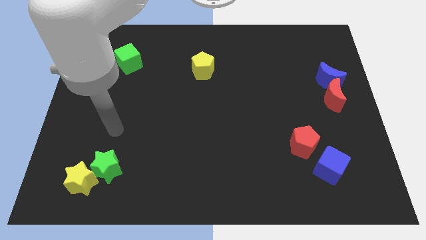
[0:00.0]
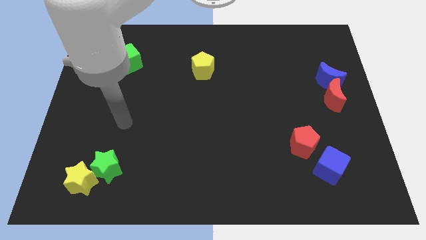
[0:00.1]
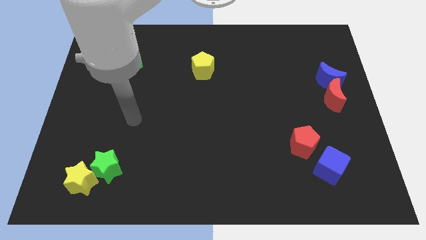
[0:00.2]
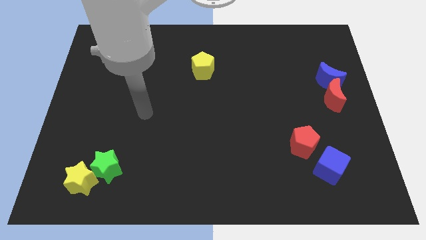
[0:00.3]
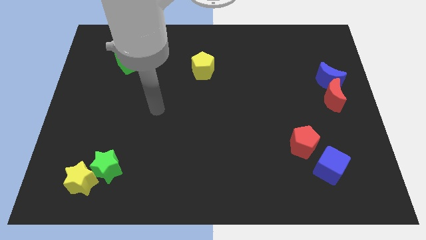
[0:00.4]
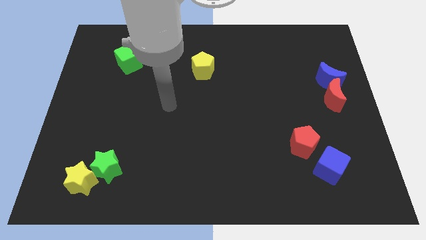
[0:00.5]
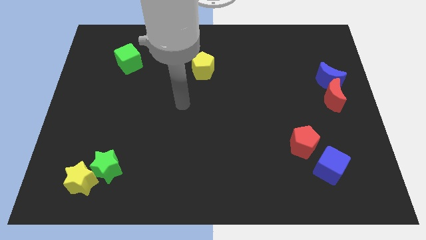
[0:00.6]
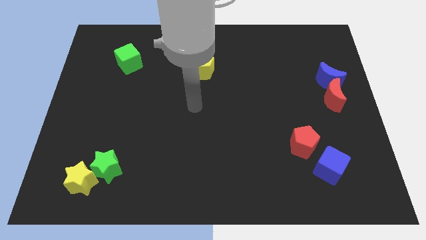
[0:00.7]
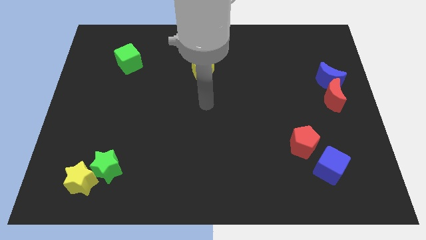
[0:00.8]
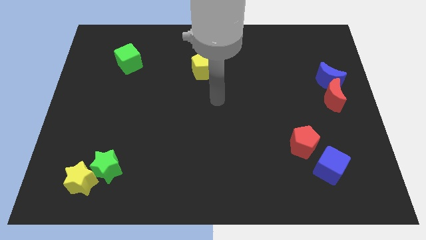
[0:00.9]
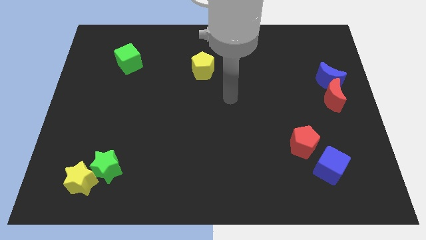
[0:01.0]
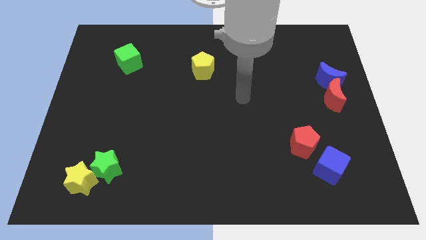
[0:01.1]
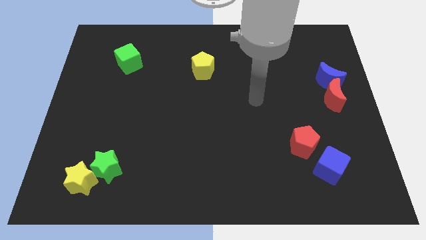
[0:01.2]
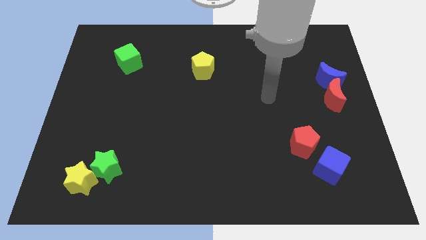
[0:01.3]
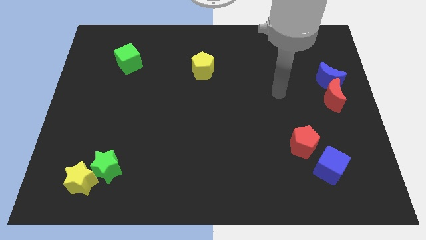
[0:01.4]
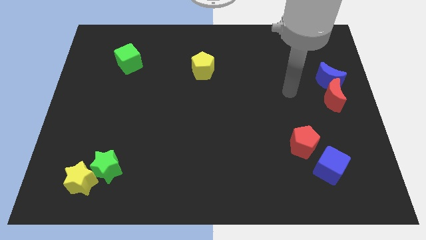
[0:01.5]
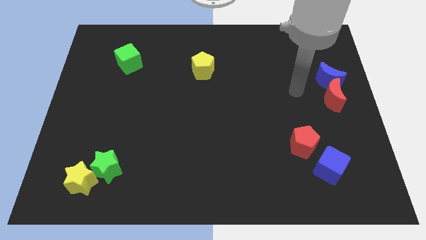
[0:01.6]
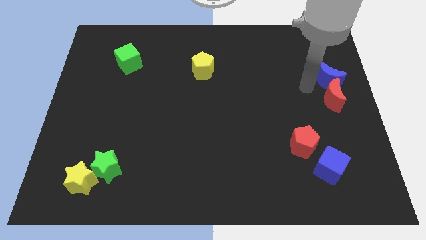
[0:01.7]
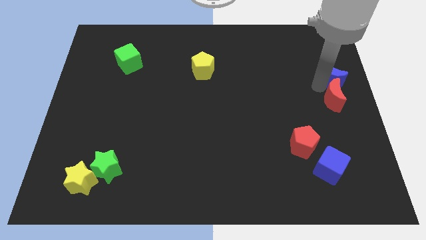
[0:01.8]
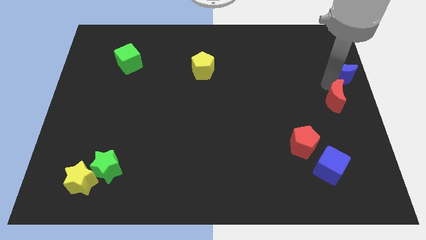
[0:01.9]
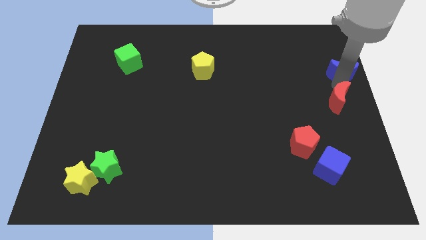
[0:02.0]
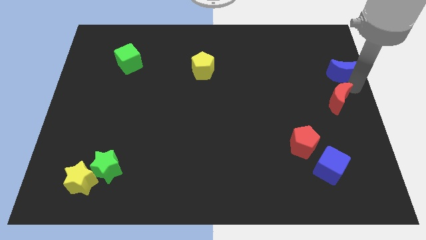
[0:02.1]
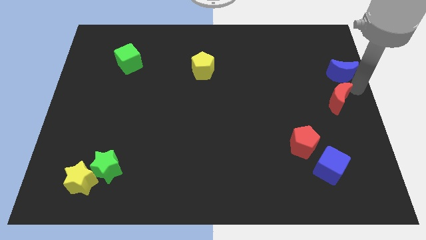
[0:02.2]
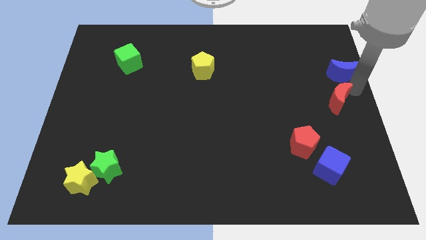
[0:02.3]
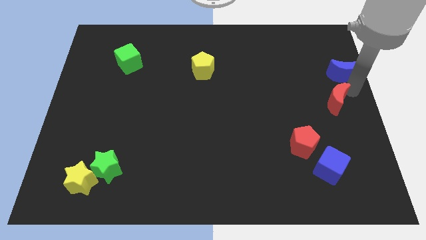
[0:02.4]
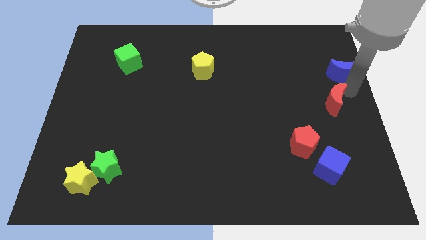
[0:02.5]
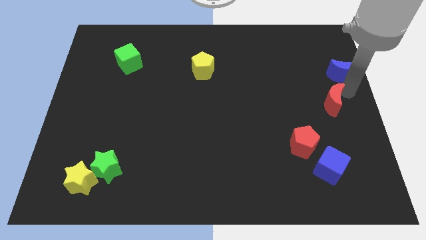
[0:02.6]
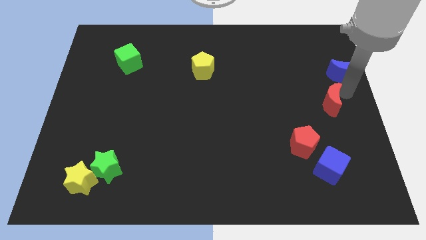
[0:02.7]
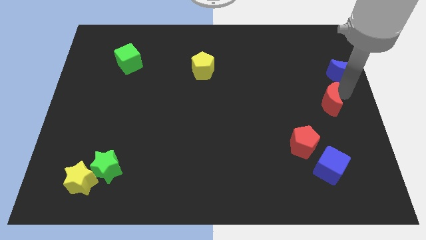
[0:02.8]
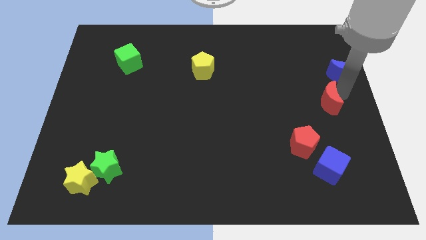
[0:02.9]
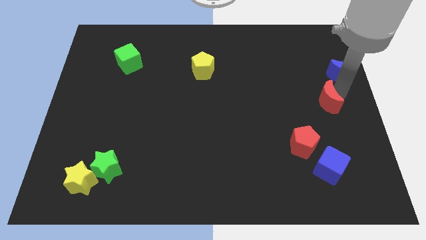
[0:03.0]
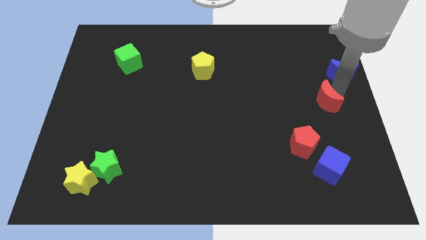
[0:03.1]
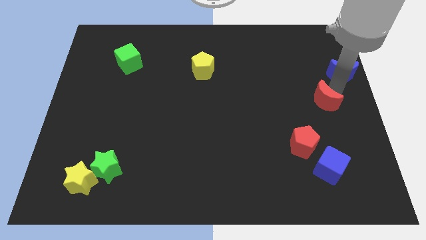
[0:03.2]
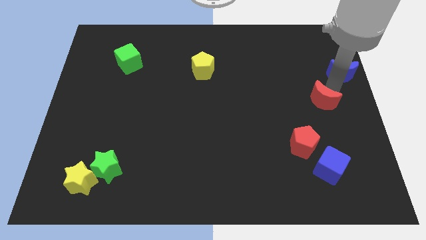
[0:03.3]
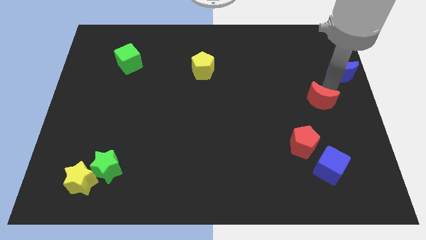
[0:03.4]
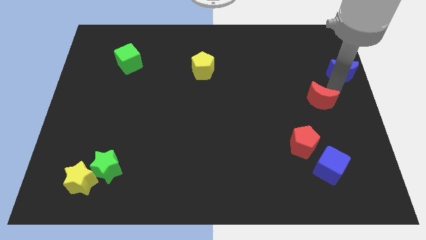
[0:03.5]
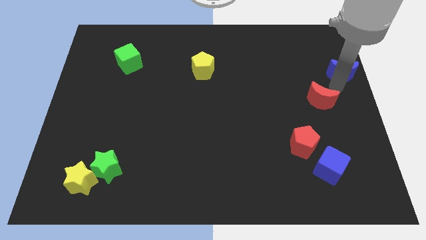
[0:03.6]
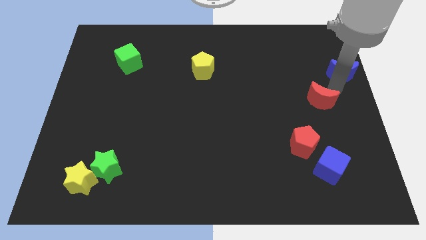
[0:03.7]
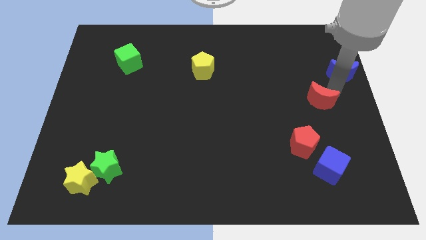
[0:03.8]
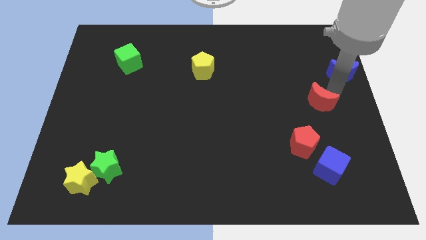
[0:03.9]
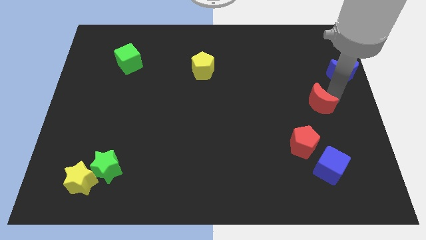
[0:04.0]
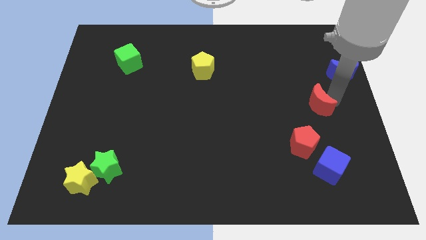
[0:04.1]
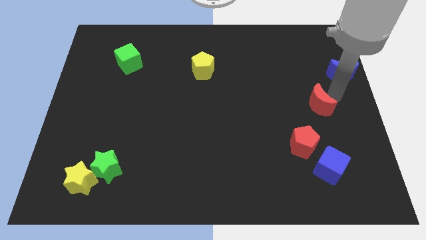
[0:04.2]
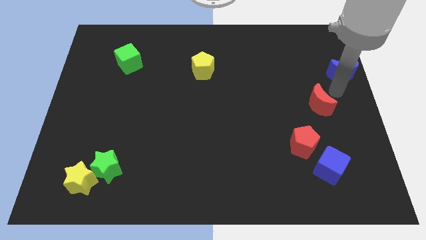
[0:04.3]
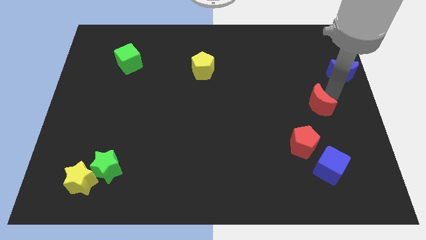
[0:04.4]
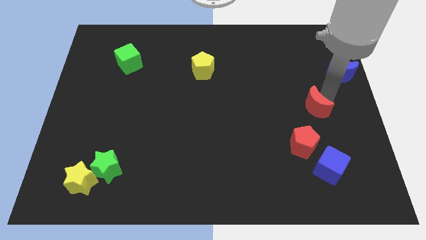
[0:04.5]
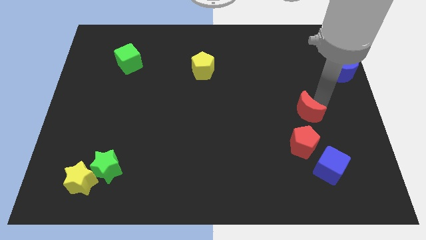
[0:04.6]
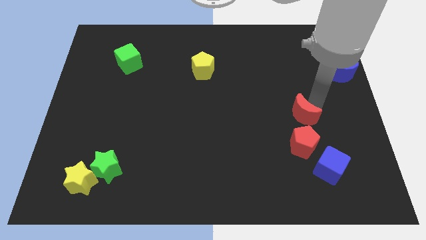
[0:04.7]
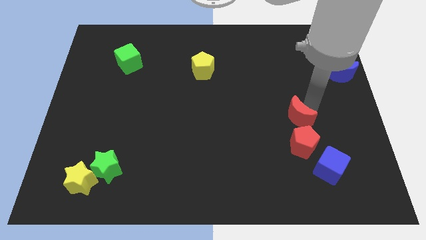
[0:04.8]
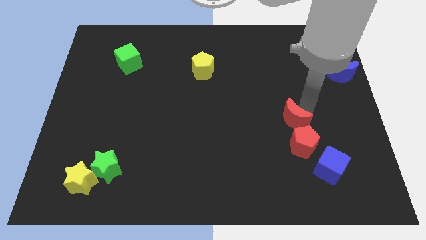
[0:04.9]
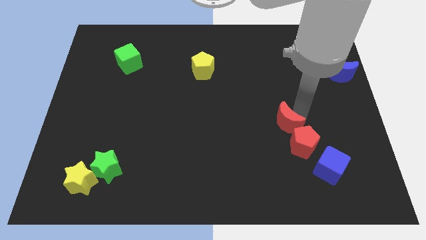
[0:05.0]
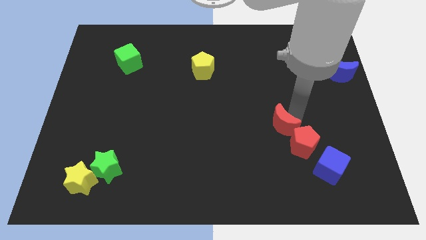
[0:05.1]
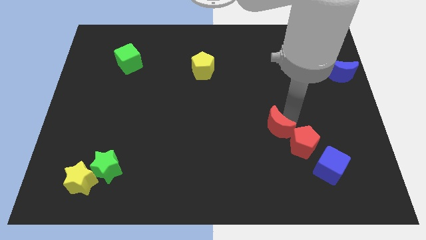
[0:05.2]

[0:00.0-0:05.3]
slide the red moon just left of the red pentagon

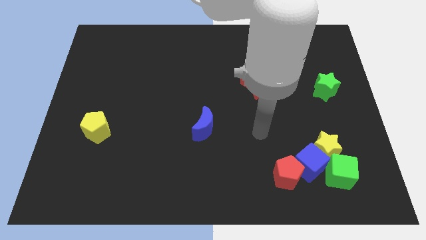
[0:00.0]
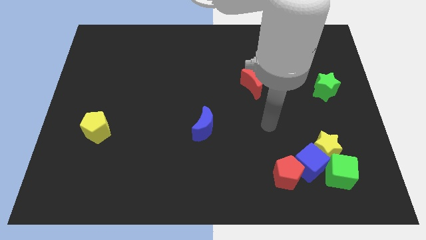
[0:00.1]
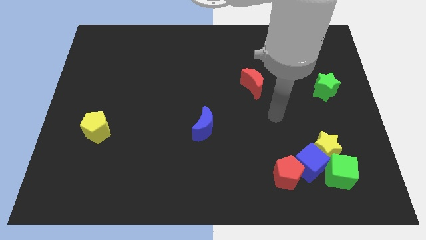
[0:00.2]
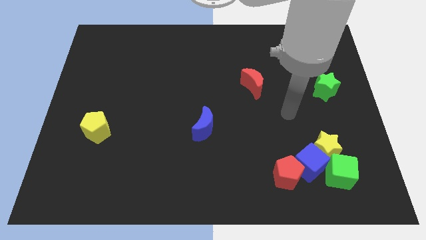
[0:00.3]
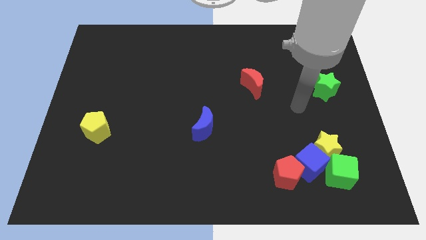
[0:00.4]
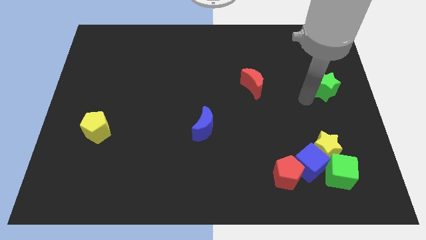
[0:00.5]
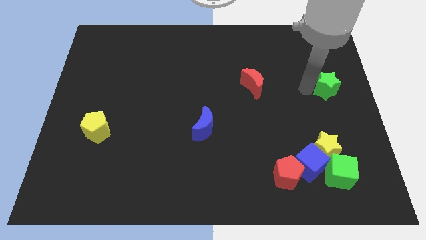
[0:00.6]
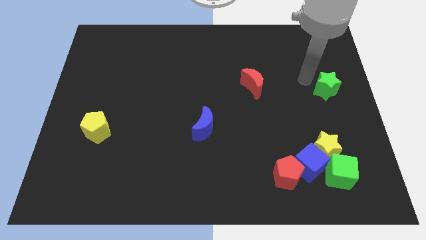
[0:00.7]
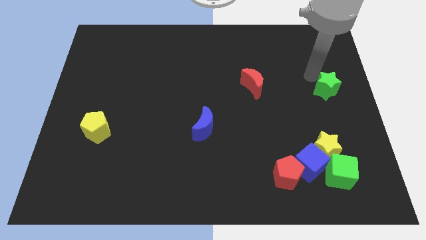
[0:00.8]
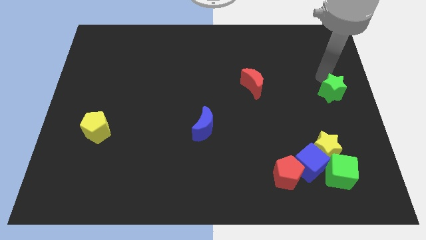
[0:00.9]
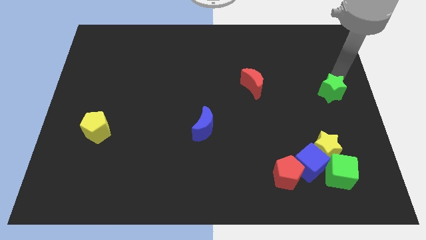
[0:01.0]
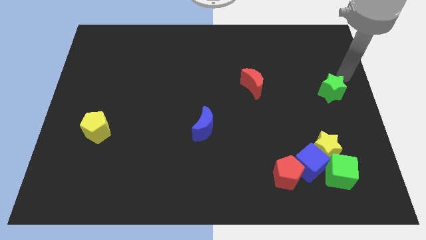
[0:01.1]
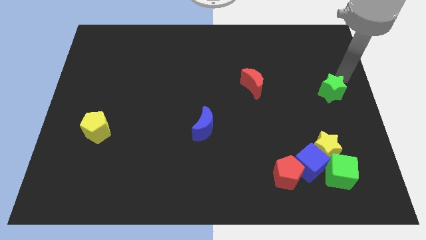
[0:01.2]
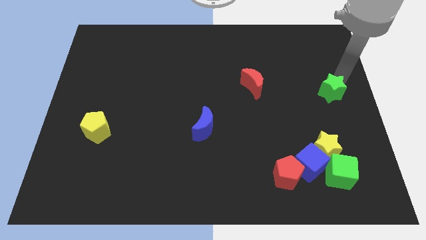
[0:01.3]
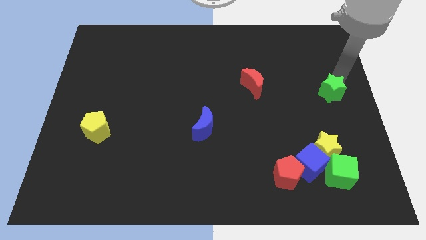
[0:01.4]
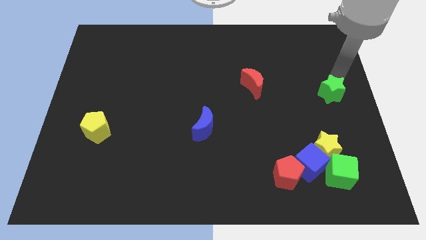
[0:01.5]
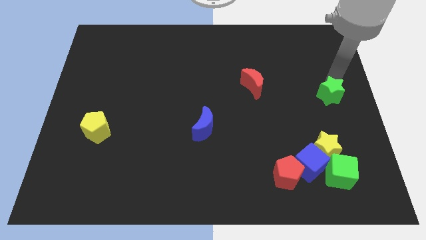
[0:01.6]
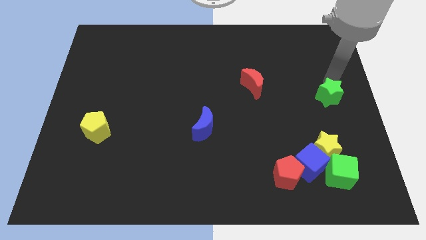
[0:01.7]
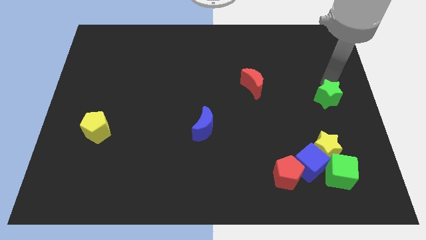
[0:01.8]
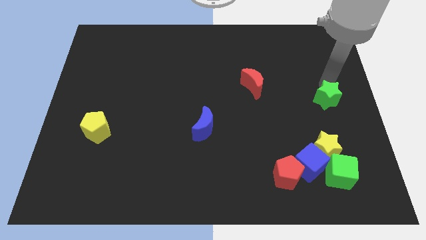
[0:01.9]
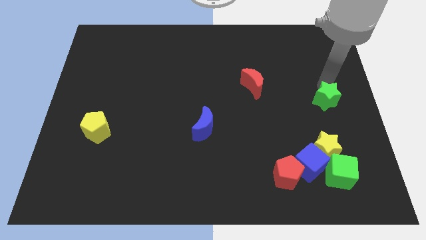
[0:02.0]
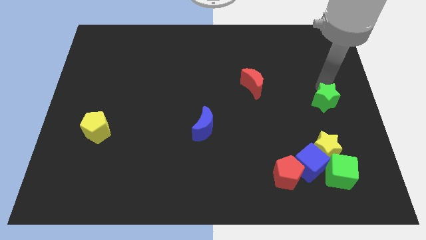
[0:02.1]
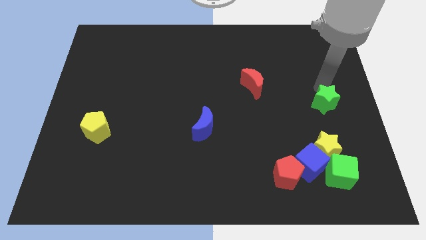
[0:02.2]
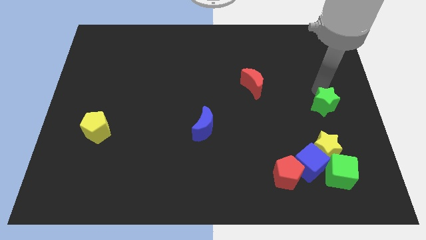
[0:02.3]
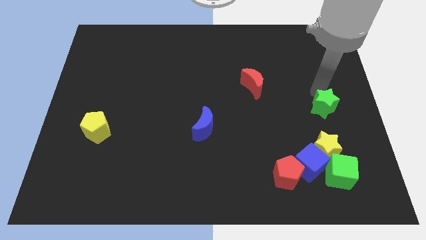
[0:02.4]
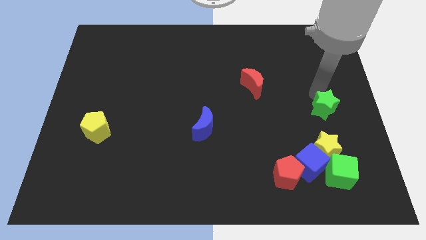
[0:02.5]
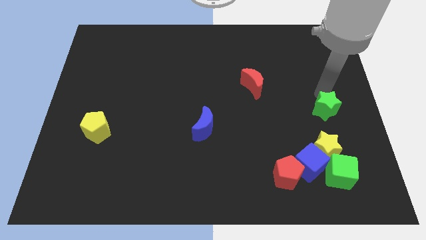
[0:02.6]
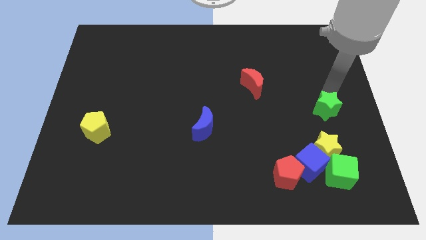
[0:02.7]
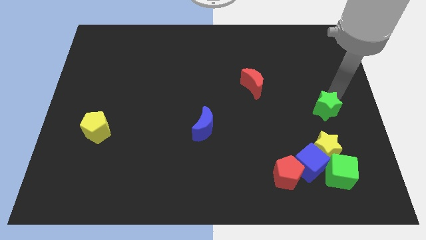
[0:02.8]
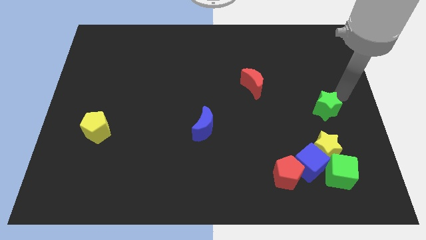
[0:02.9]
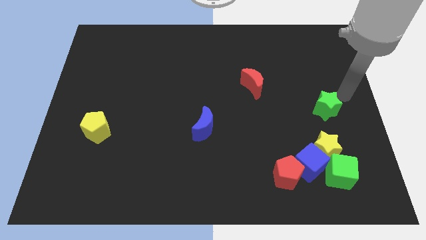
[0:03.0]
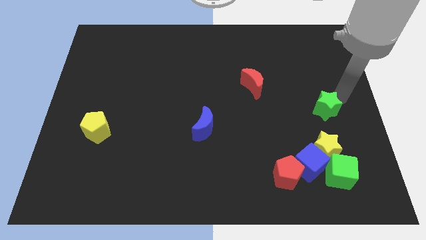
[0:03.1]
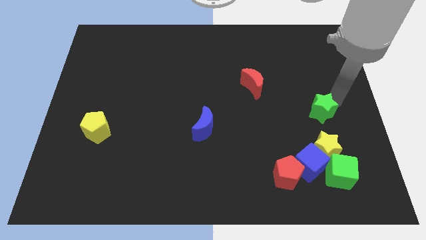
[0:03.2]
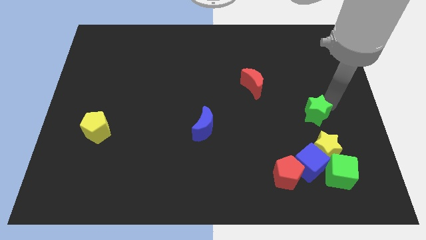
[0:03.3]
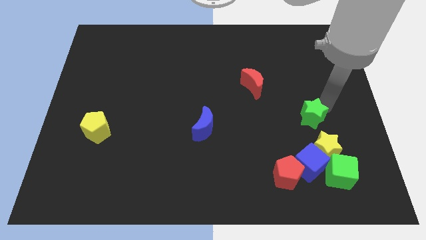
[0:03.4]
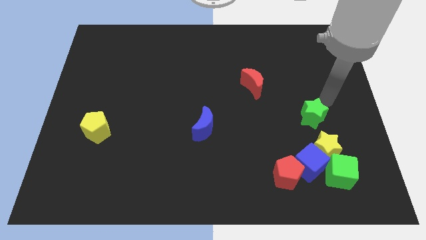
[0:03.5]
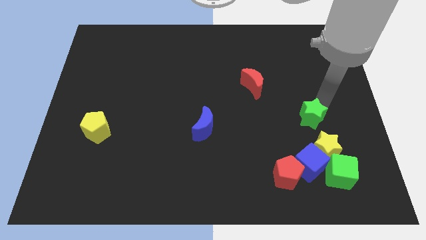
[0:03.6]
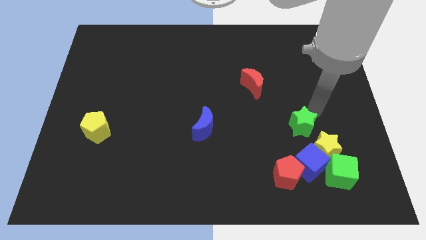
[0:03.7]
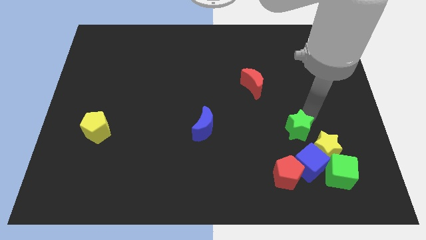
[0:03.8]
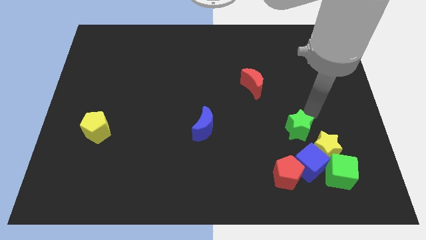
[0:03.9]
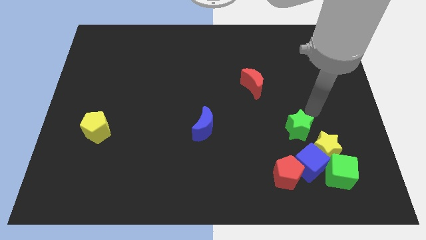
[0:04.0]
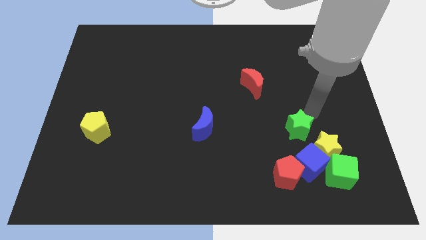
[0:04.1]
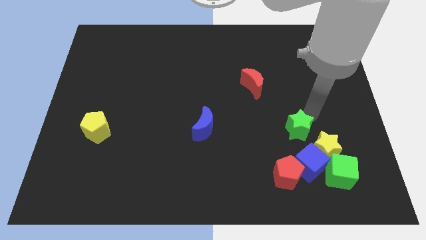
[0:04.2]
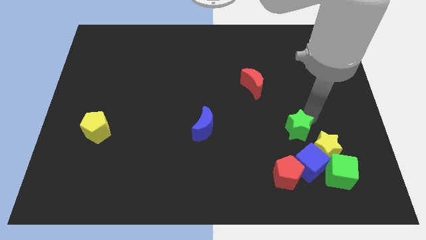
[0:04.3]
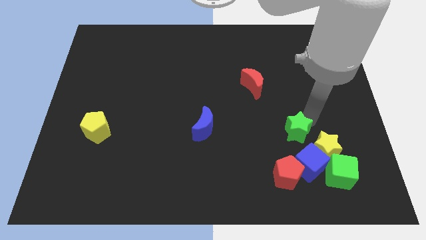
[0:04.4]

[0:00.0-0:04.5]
slide the green star left of the yellow star
